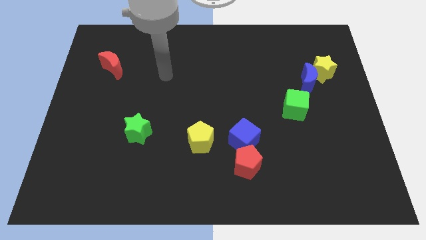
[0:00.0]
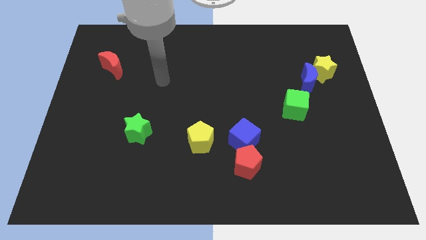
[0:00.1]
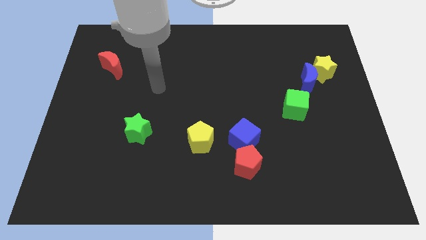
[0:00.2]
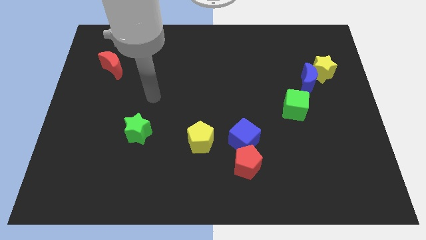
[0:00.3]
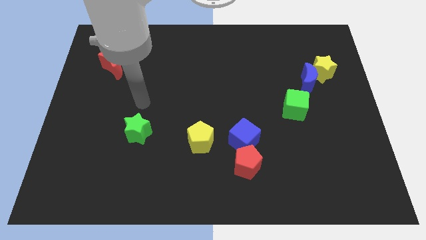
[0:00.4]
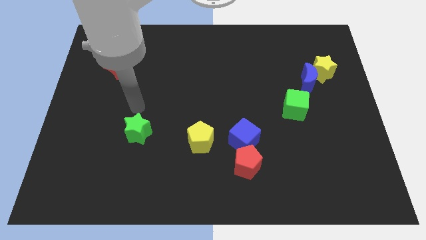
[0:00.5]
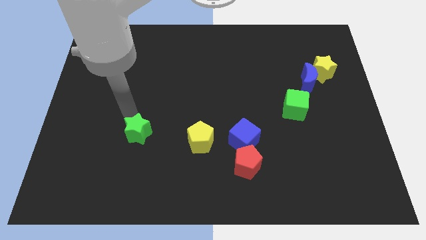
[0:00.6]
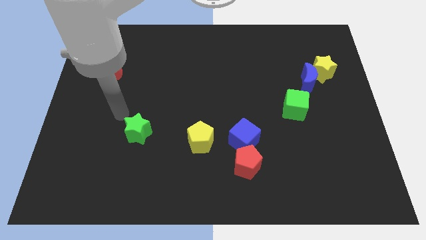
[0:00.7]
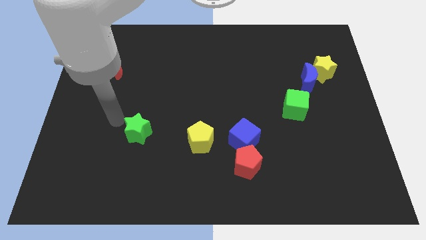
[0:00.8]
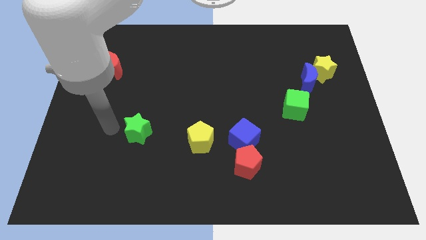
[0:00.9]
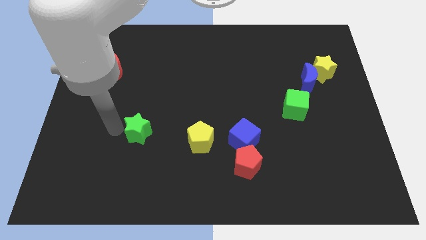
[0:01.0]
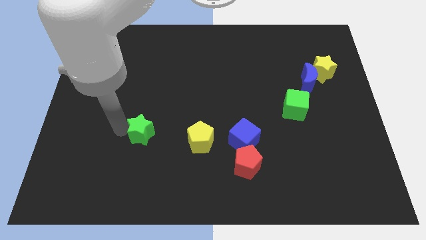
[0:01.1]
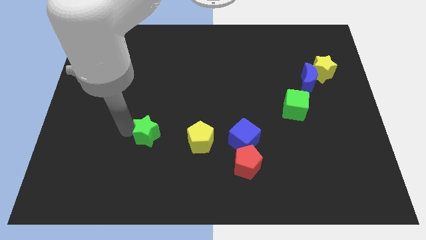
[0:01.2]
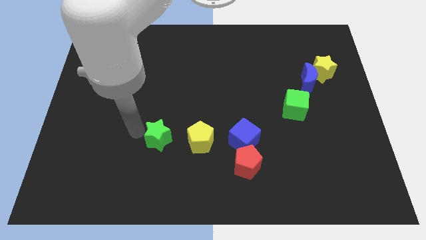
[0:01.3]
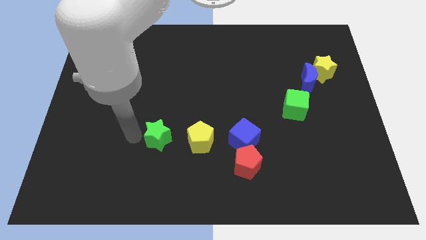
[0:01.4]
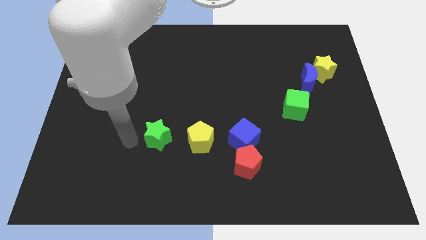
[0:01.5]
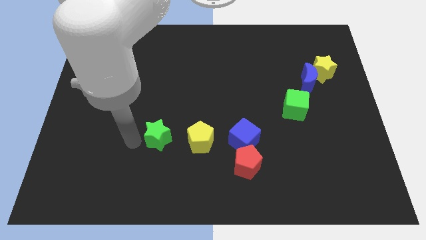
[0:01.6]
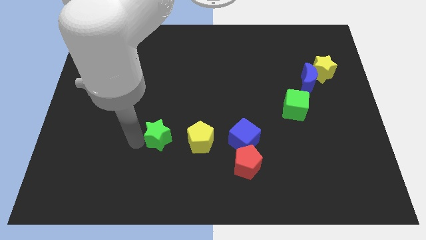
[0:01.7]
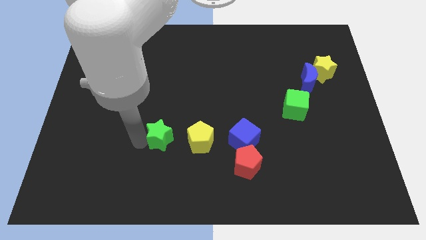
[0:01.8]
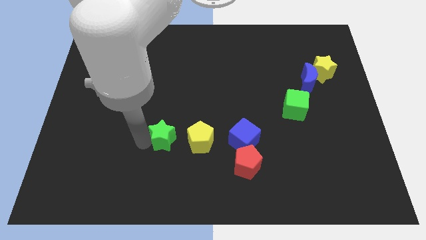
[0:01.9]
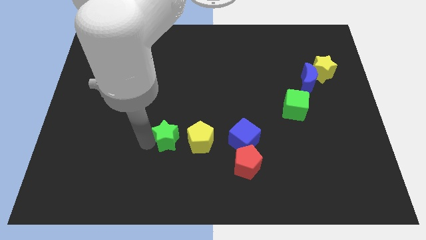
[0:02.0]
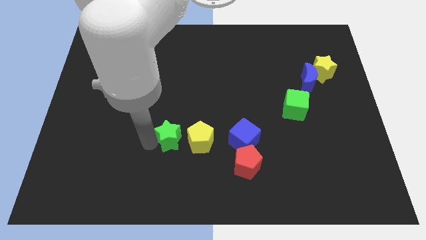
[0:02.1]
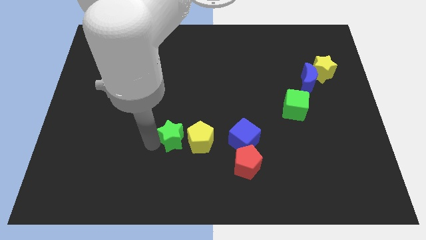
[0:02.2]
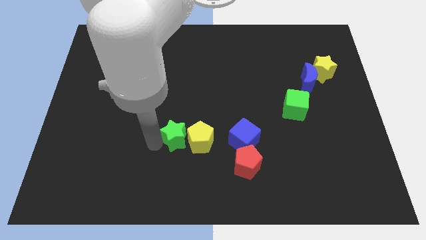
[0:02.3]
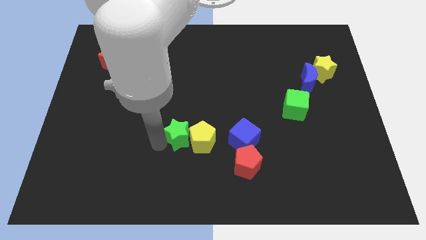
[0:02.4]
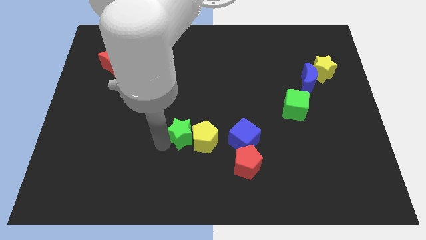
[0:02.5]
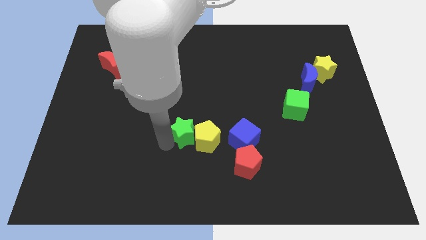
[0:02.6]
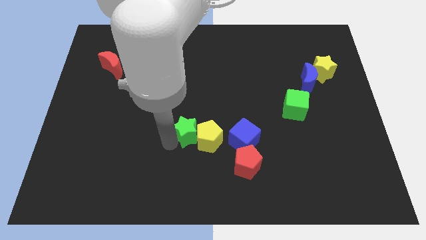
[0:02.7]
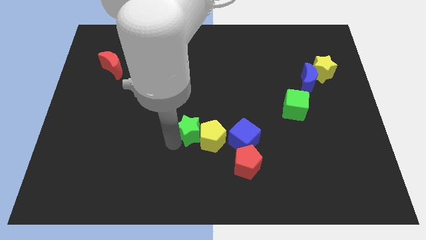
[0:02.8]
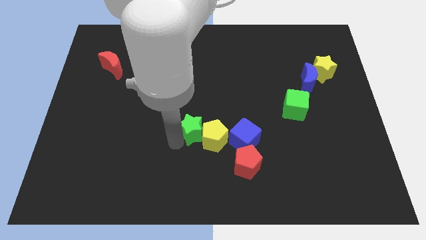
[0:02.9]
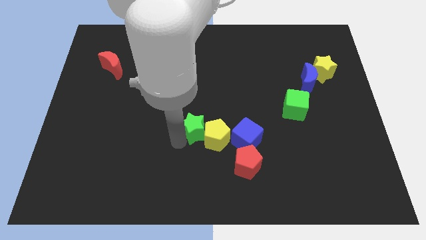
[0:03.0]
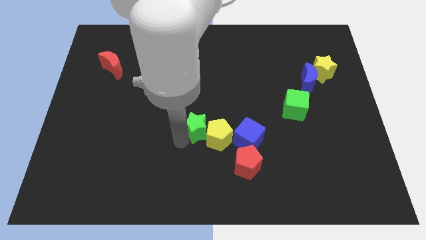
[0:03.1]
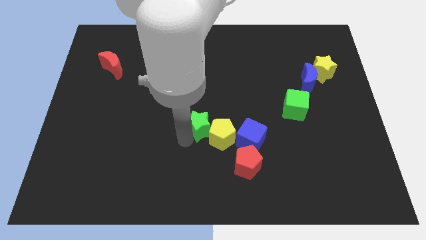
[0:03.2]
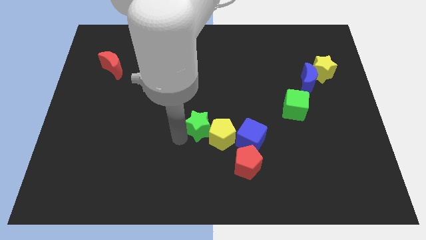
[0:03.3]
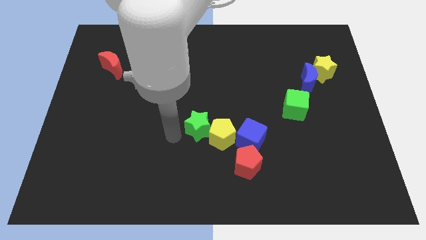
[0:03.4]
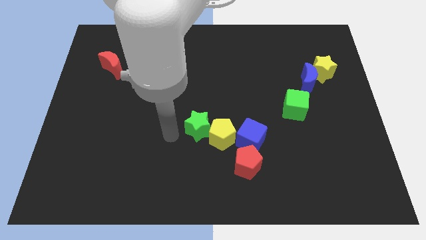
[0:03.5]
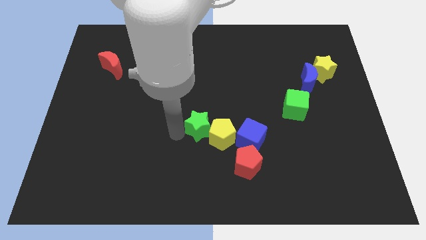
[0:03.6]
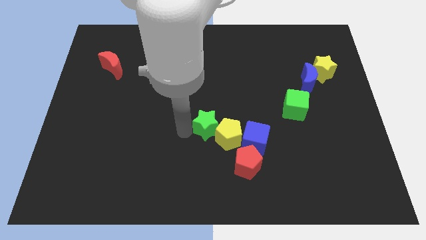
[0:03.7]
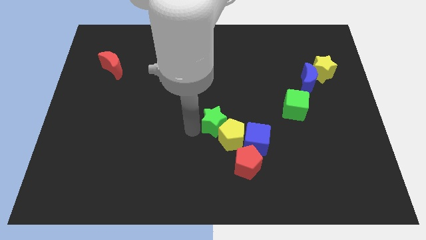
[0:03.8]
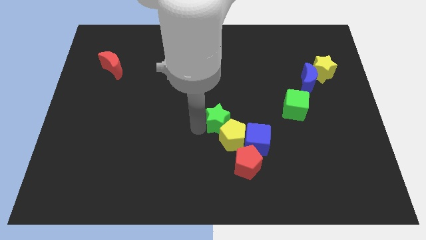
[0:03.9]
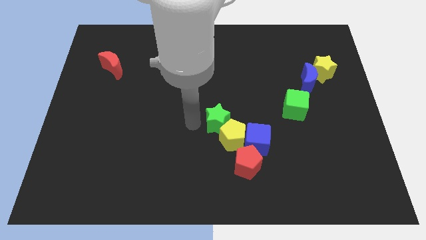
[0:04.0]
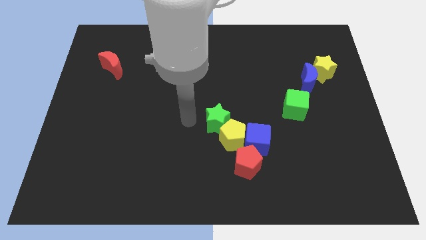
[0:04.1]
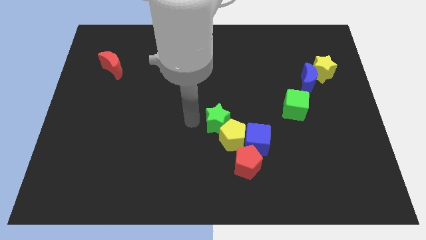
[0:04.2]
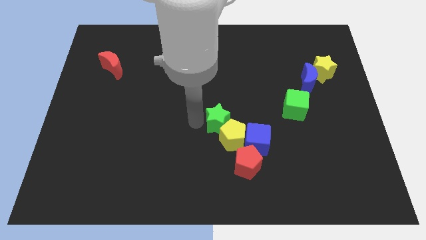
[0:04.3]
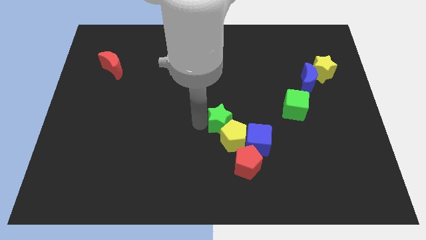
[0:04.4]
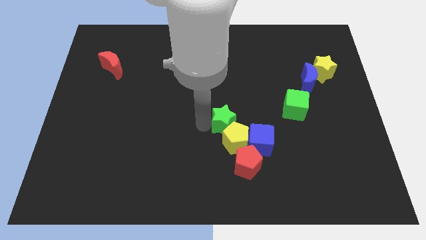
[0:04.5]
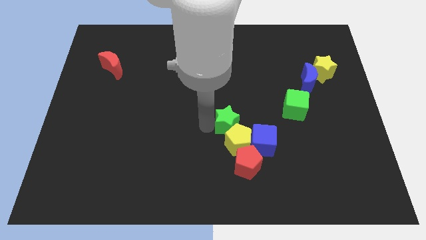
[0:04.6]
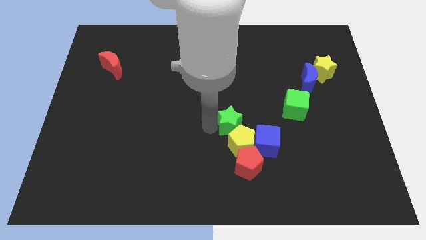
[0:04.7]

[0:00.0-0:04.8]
move the green star to the right

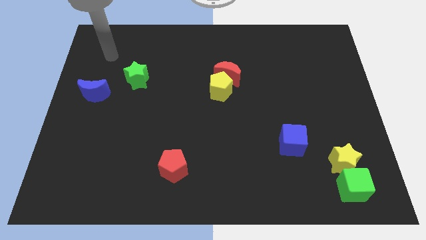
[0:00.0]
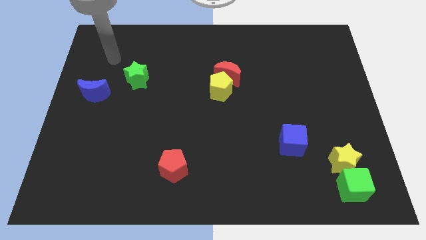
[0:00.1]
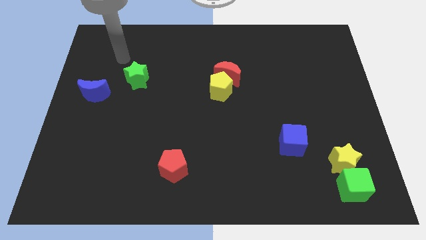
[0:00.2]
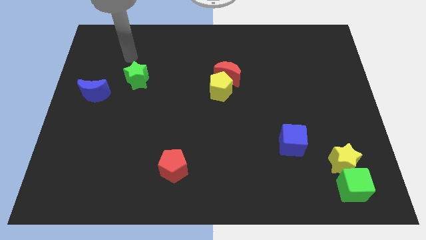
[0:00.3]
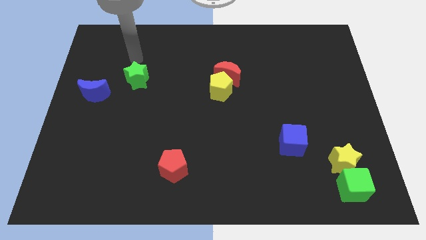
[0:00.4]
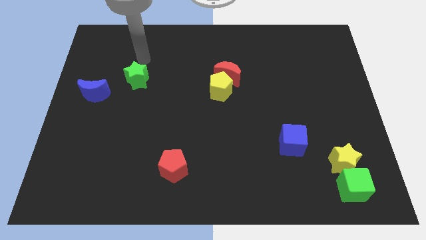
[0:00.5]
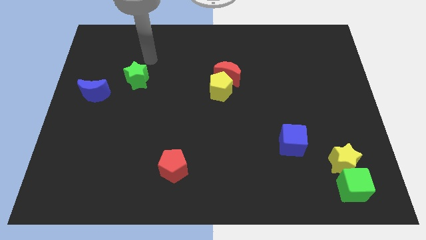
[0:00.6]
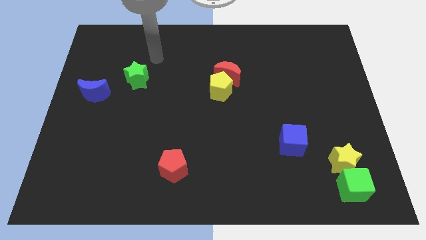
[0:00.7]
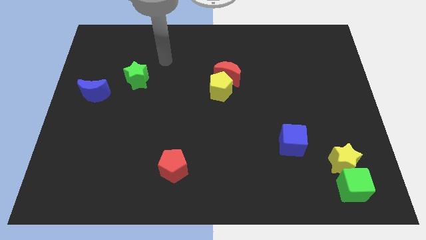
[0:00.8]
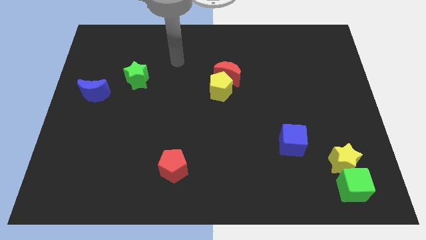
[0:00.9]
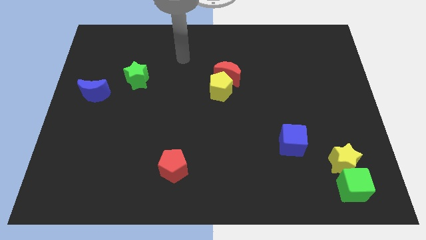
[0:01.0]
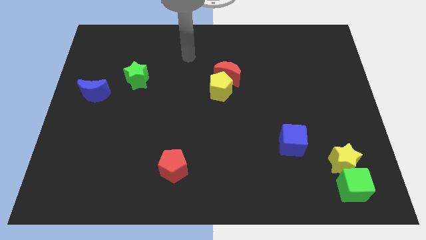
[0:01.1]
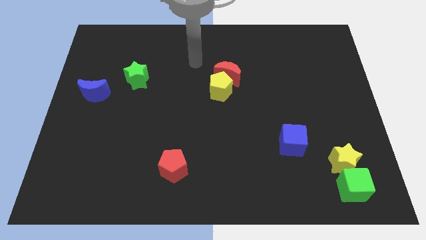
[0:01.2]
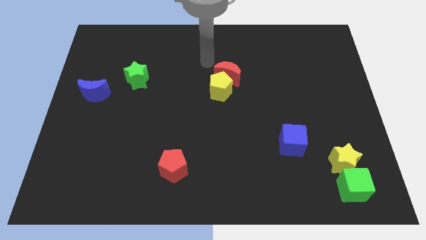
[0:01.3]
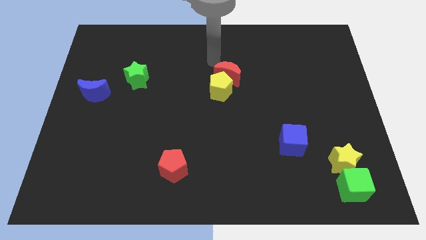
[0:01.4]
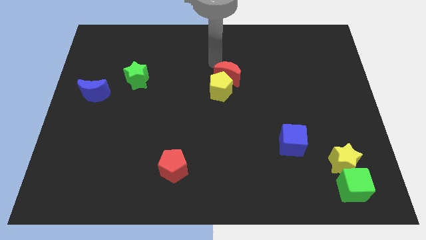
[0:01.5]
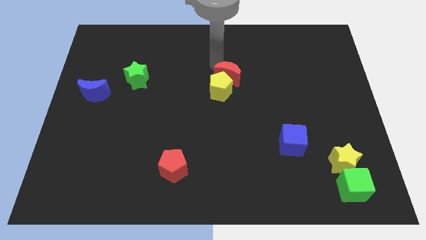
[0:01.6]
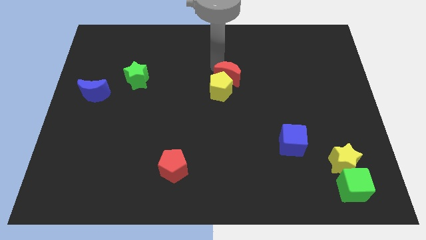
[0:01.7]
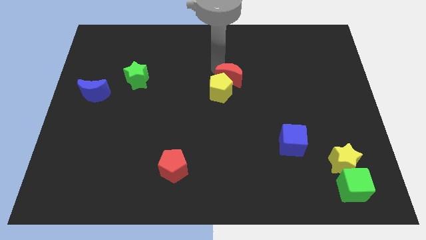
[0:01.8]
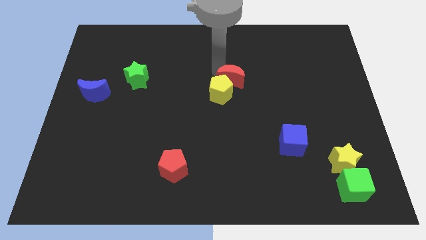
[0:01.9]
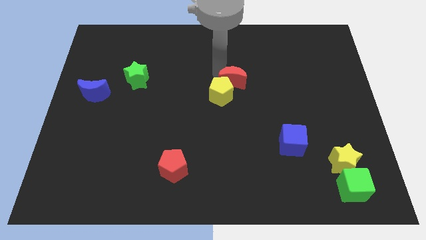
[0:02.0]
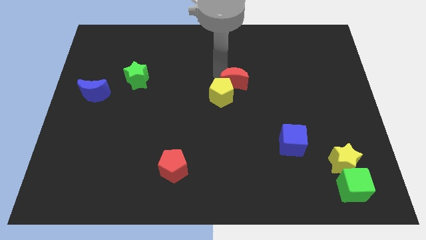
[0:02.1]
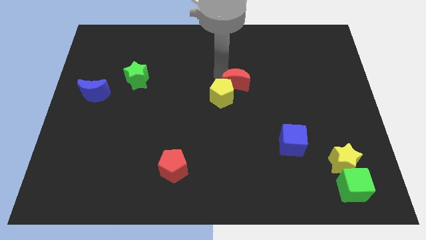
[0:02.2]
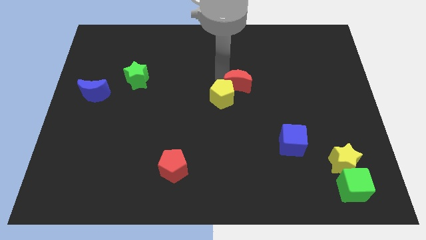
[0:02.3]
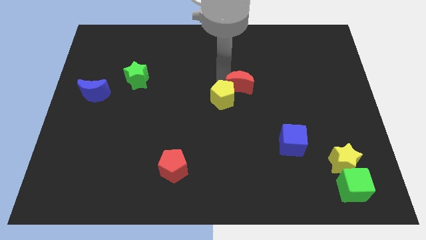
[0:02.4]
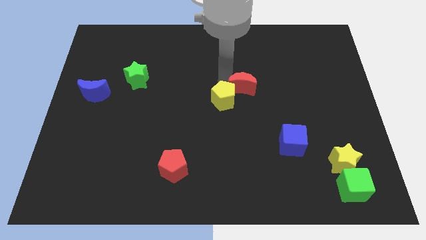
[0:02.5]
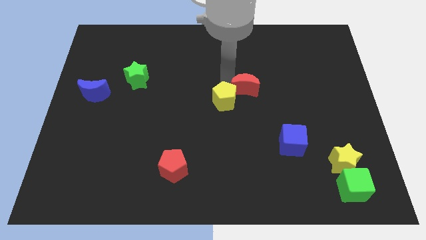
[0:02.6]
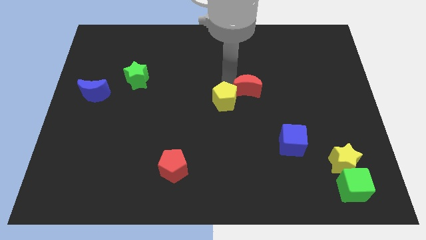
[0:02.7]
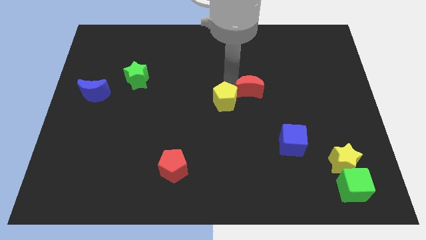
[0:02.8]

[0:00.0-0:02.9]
move the red moon somewhat down and right diagonally

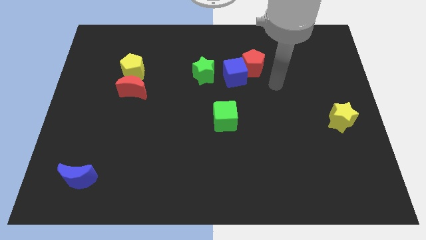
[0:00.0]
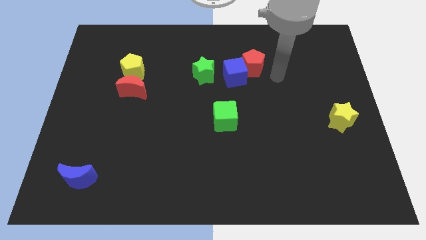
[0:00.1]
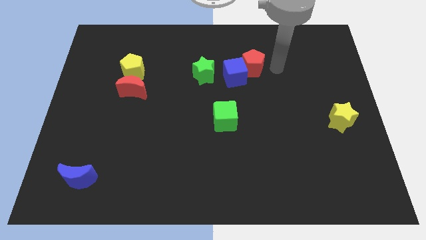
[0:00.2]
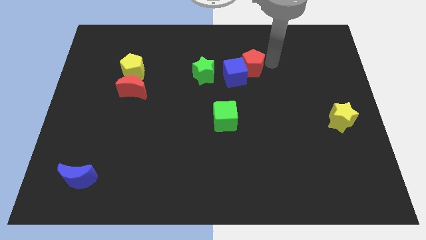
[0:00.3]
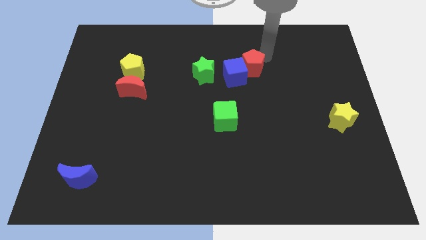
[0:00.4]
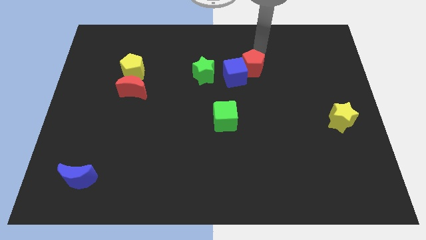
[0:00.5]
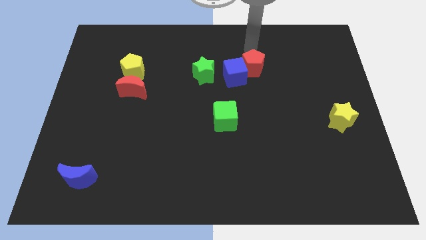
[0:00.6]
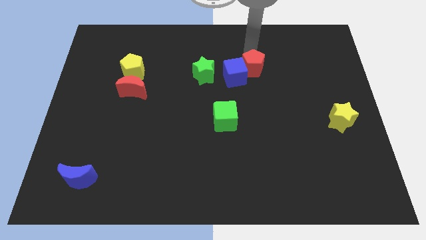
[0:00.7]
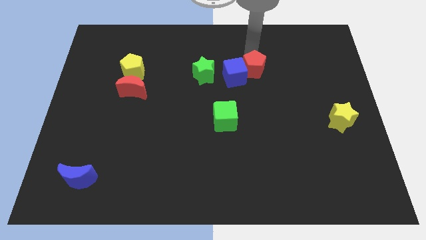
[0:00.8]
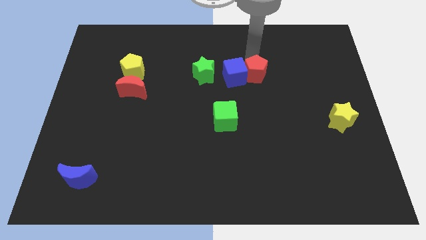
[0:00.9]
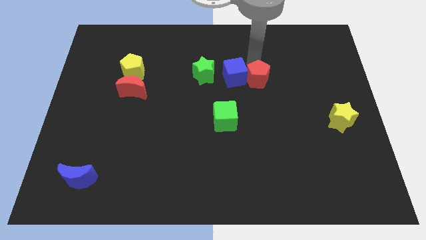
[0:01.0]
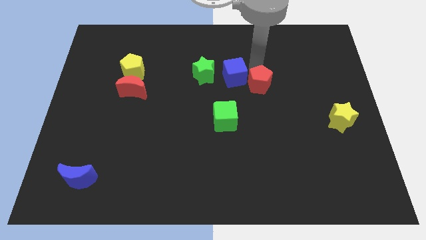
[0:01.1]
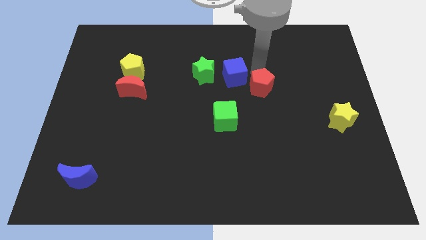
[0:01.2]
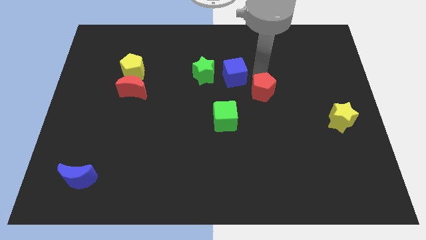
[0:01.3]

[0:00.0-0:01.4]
push the red pentagon slightly downwards
